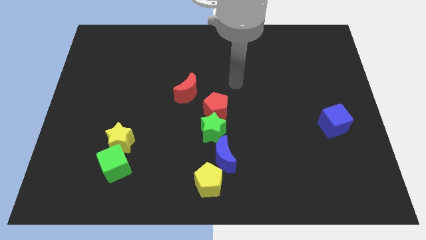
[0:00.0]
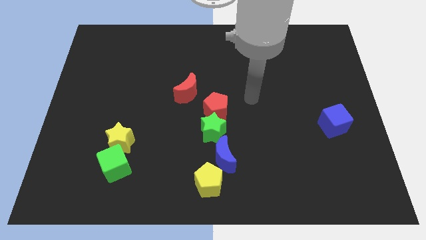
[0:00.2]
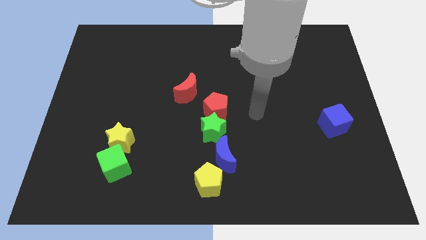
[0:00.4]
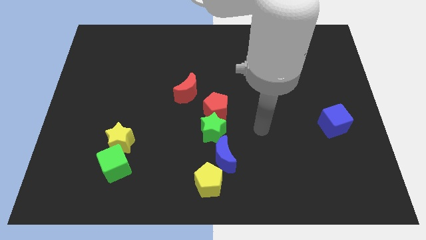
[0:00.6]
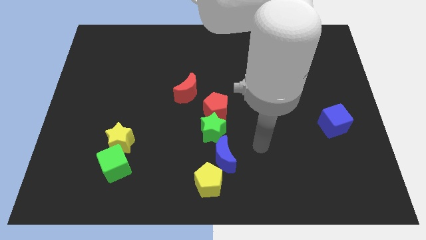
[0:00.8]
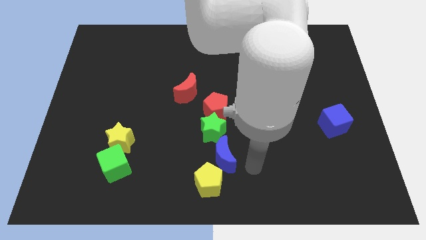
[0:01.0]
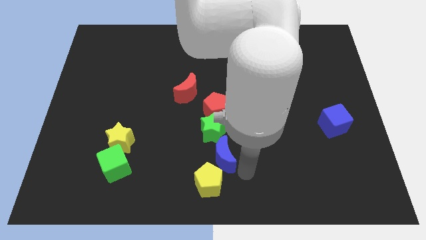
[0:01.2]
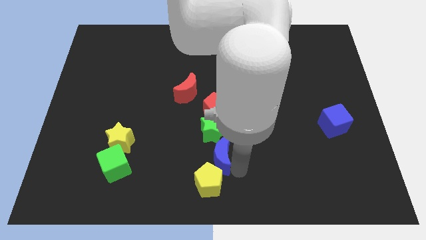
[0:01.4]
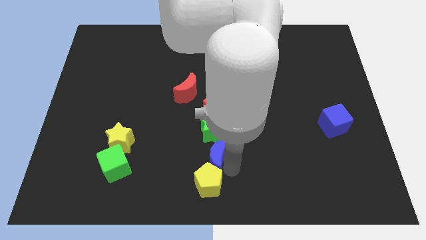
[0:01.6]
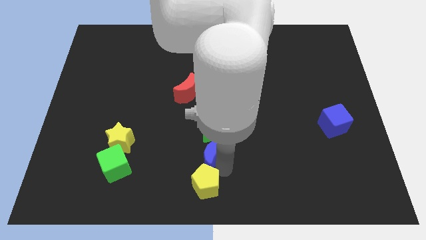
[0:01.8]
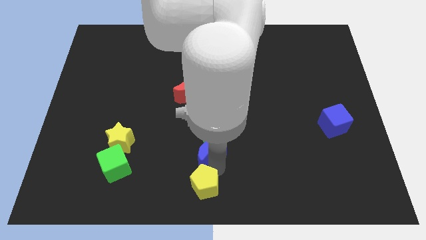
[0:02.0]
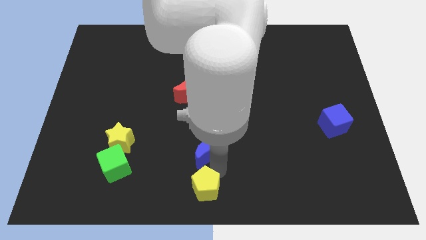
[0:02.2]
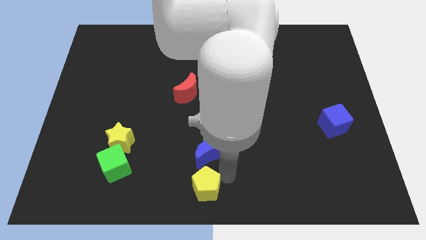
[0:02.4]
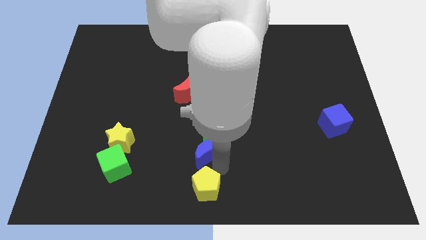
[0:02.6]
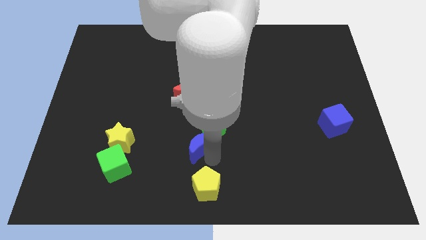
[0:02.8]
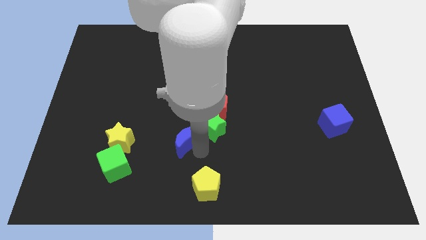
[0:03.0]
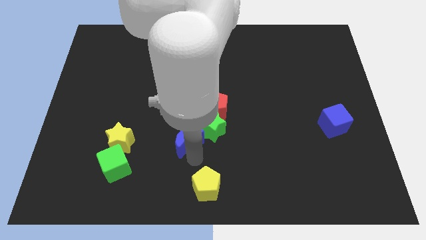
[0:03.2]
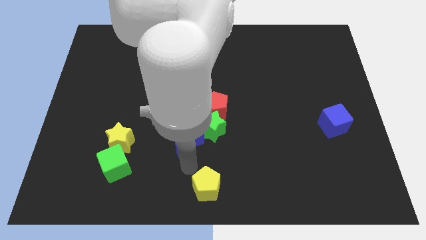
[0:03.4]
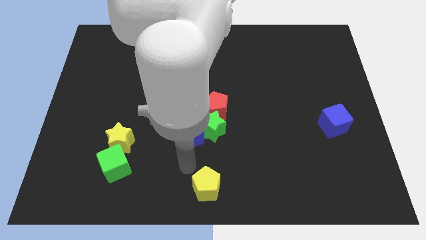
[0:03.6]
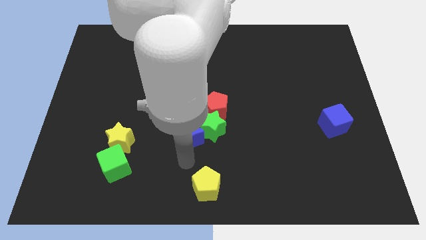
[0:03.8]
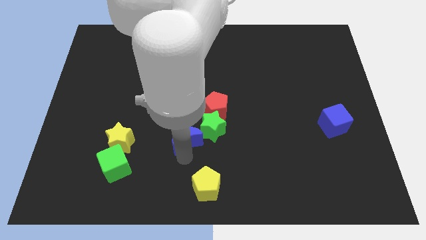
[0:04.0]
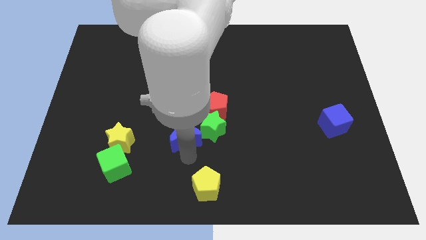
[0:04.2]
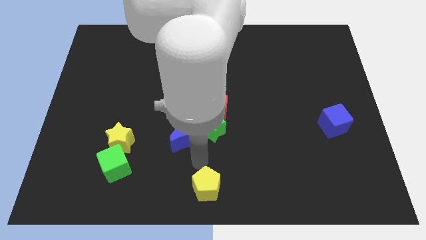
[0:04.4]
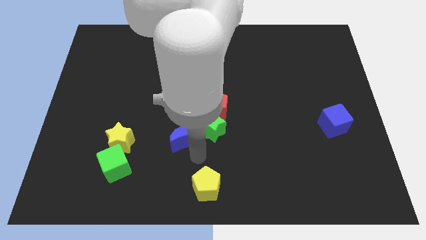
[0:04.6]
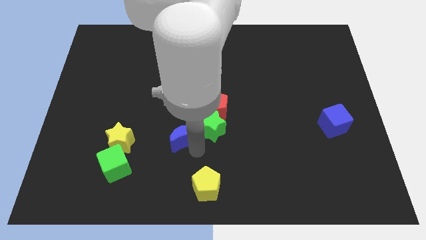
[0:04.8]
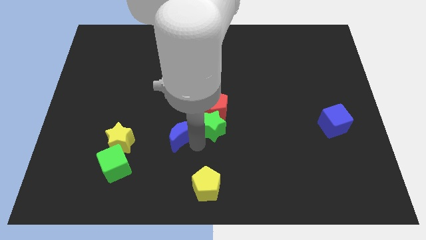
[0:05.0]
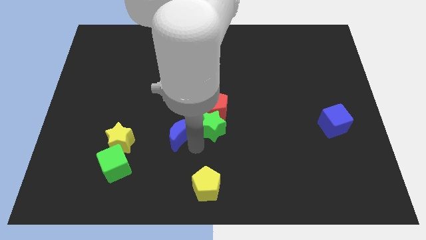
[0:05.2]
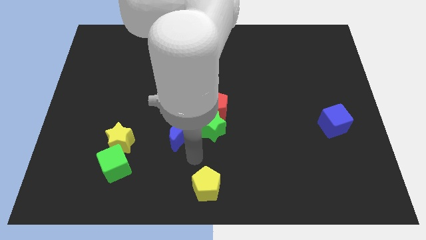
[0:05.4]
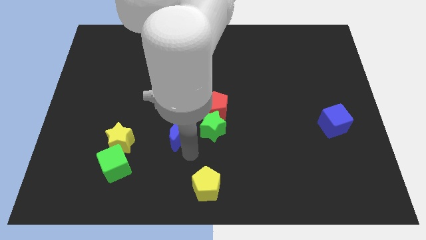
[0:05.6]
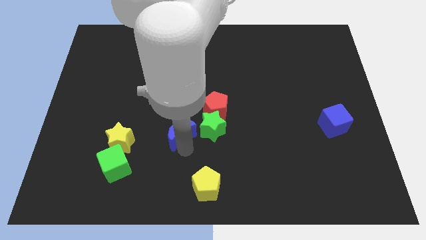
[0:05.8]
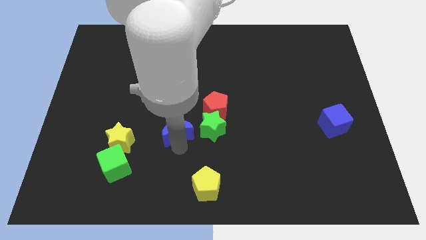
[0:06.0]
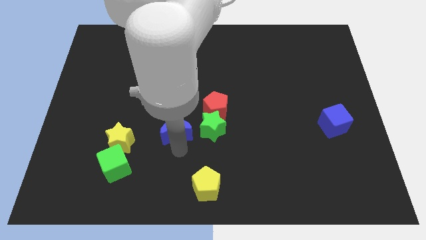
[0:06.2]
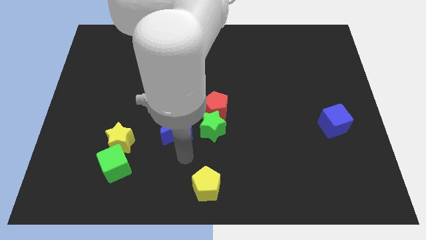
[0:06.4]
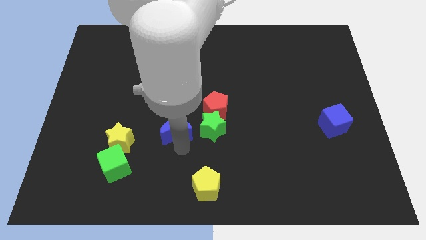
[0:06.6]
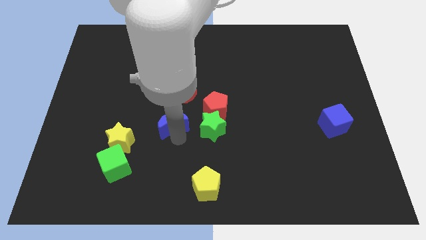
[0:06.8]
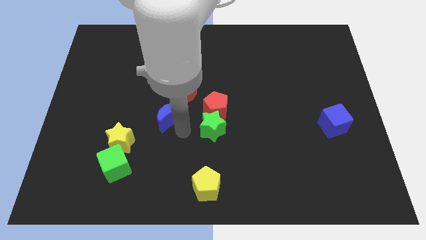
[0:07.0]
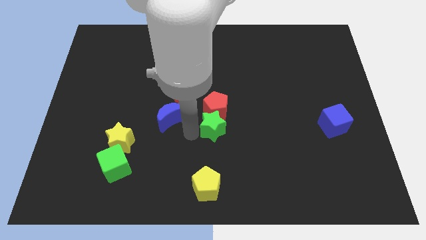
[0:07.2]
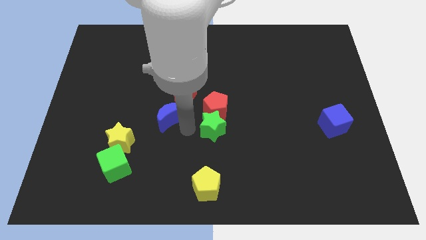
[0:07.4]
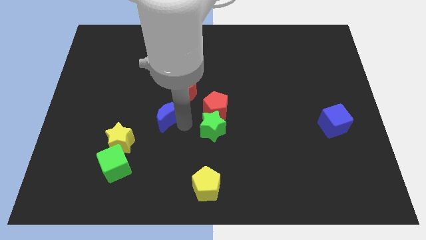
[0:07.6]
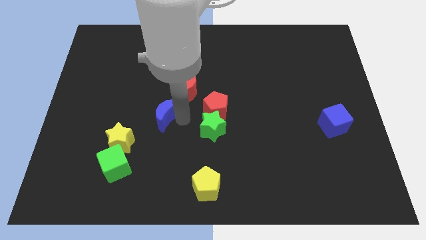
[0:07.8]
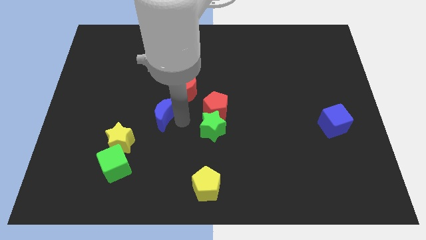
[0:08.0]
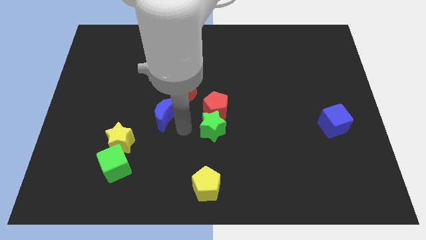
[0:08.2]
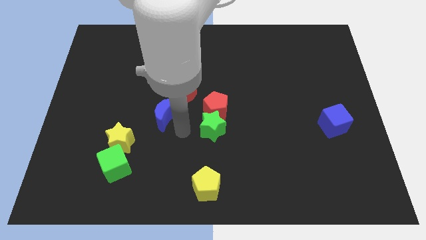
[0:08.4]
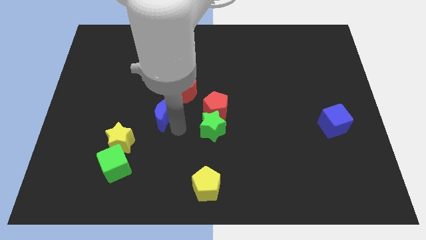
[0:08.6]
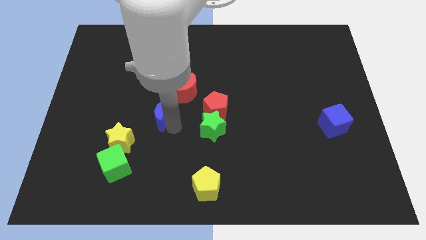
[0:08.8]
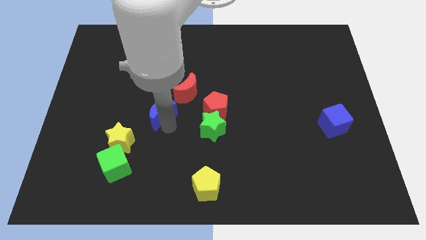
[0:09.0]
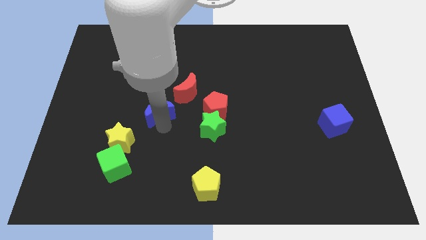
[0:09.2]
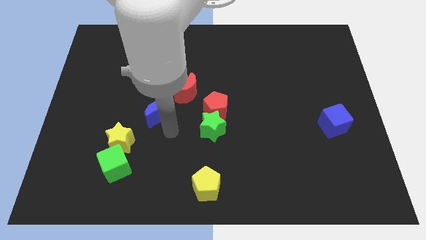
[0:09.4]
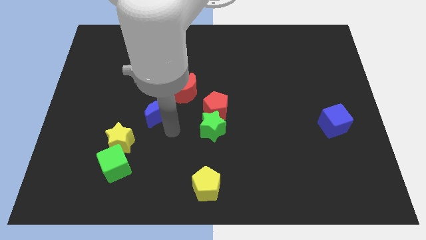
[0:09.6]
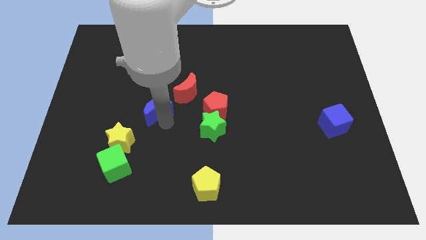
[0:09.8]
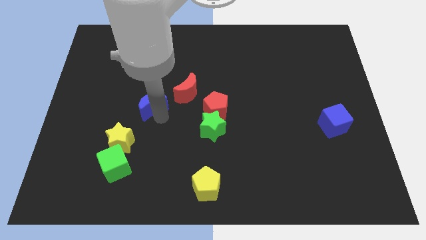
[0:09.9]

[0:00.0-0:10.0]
slide the blue moon up and then to the left

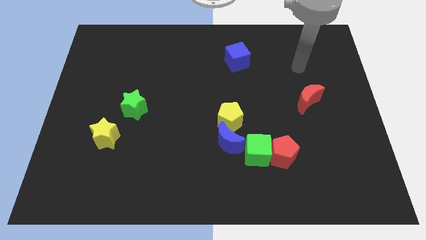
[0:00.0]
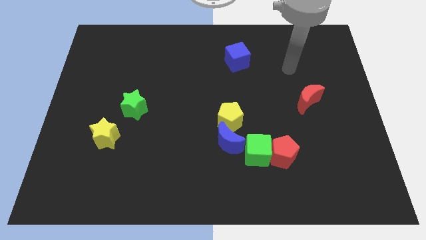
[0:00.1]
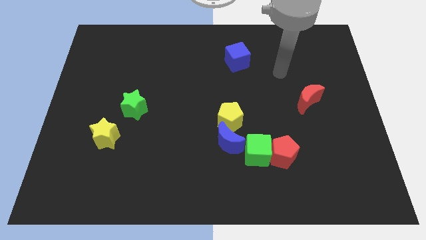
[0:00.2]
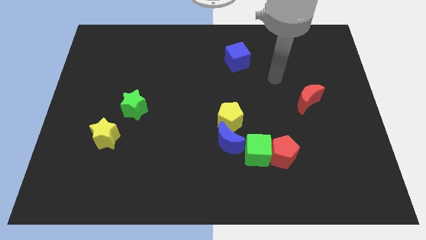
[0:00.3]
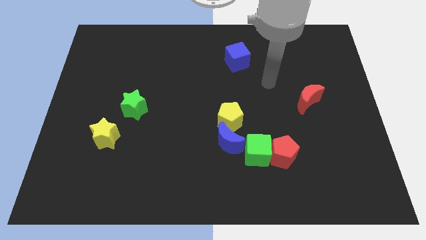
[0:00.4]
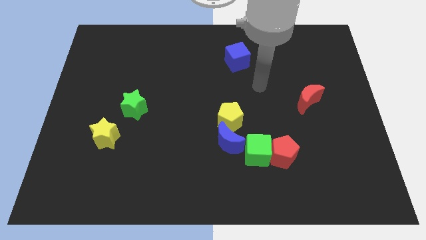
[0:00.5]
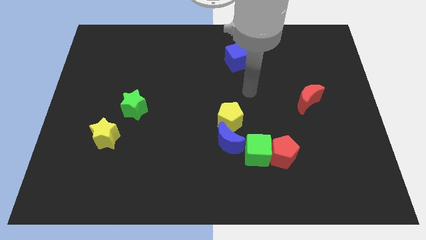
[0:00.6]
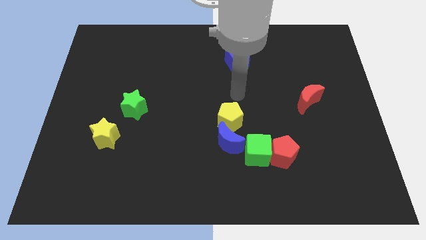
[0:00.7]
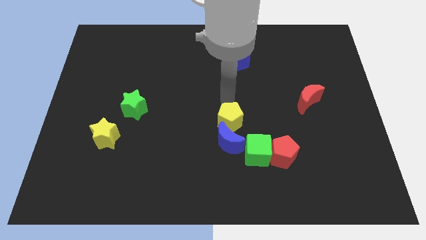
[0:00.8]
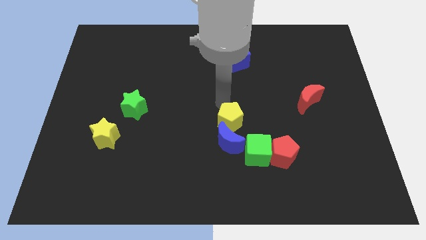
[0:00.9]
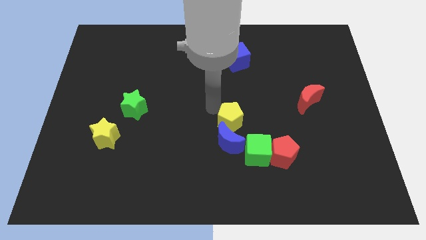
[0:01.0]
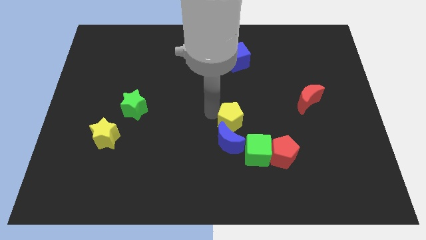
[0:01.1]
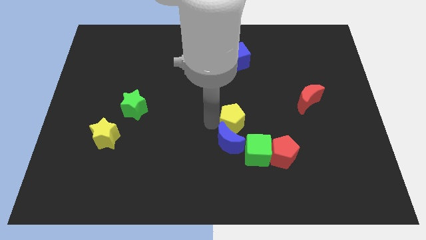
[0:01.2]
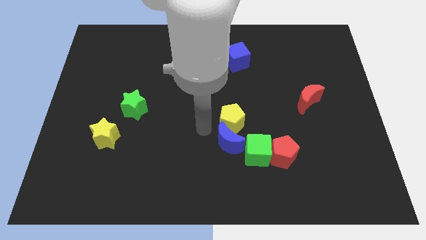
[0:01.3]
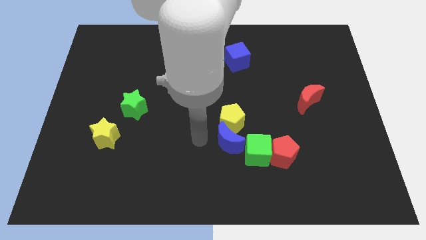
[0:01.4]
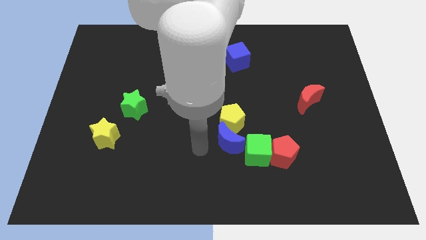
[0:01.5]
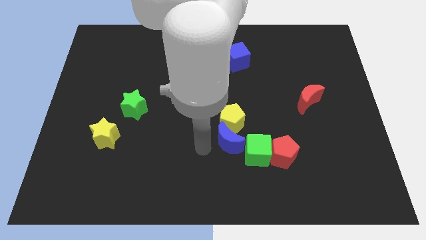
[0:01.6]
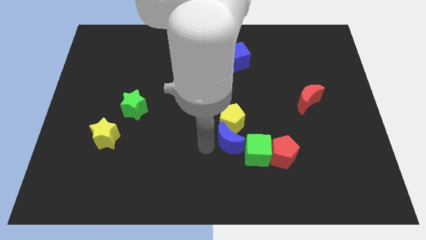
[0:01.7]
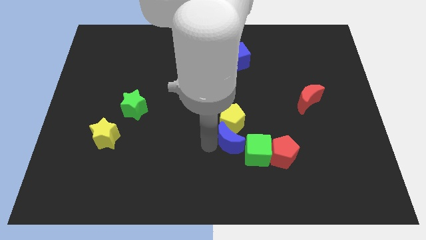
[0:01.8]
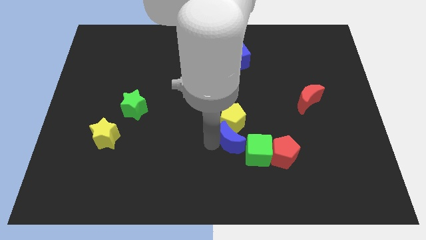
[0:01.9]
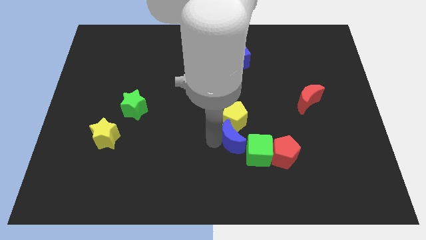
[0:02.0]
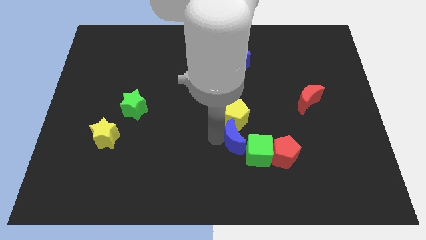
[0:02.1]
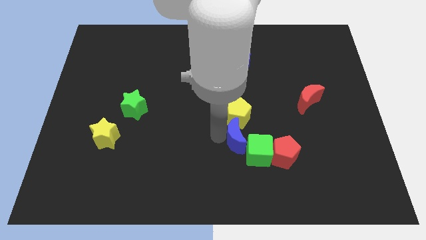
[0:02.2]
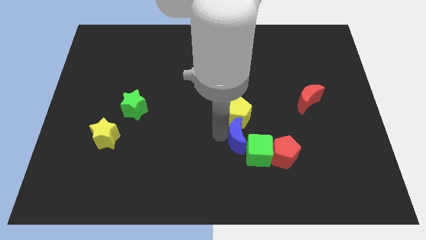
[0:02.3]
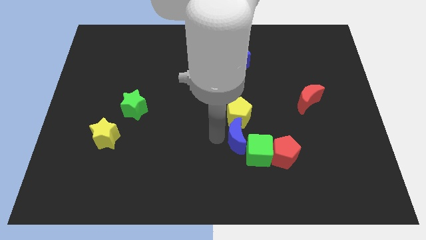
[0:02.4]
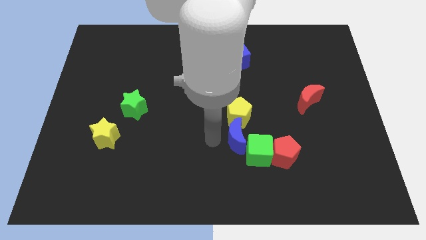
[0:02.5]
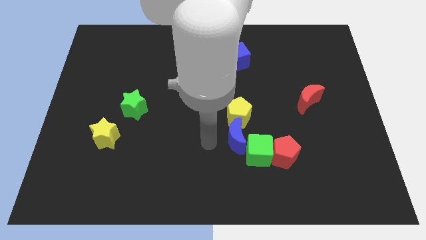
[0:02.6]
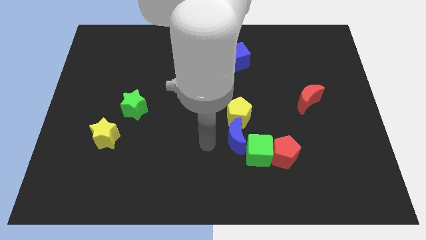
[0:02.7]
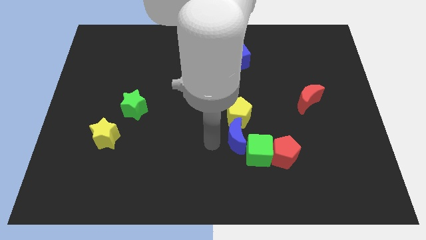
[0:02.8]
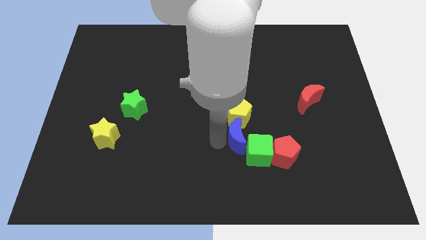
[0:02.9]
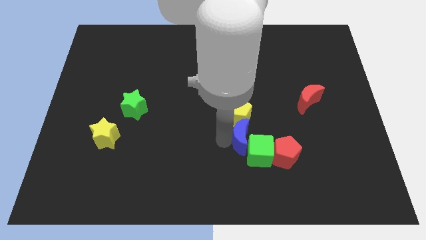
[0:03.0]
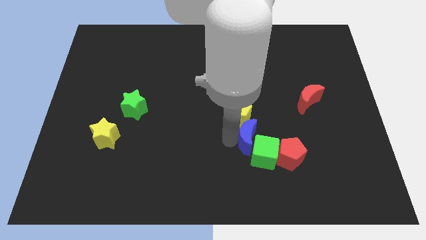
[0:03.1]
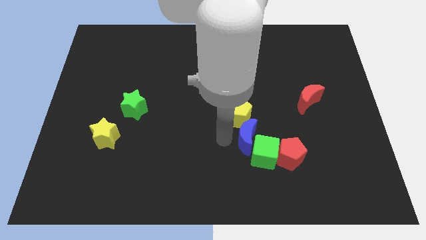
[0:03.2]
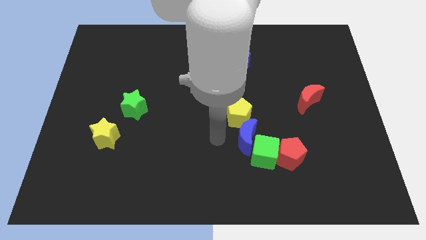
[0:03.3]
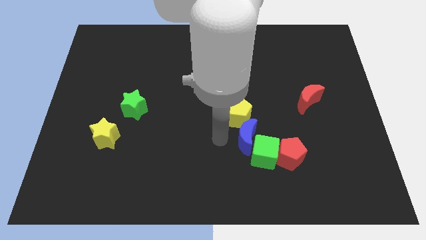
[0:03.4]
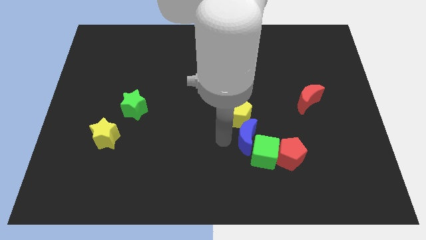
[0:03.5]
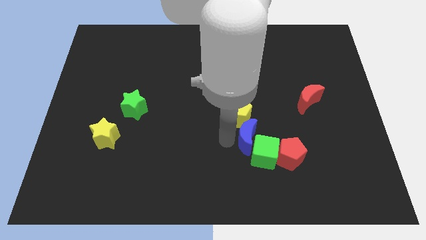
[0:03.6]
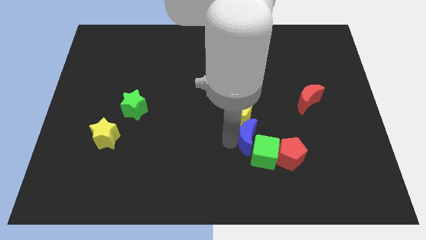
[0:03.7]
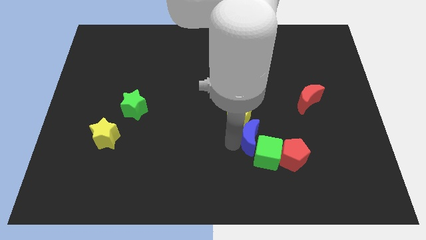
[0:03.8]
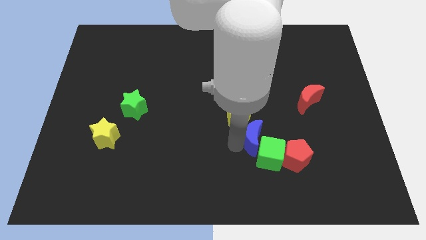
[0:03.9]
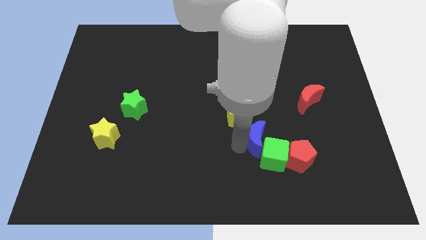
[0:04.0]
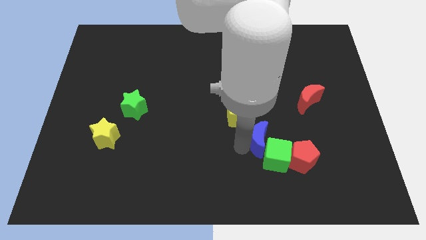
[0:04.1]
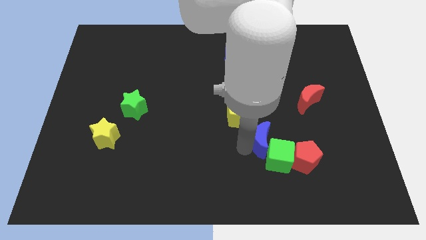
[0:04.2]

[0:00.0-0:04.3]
move the blue moon right slightly
